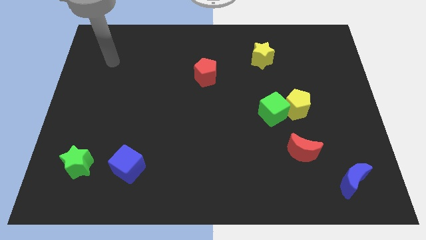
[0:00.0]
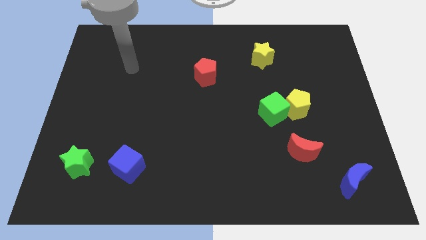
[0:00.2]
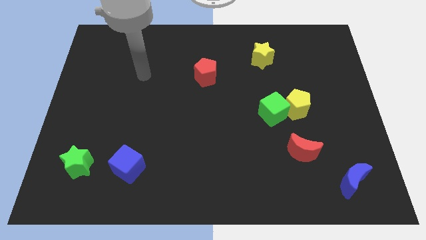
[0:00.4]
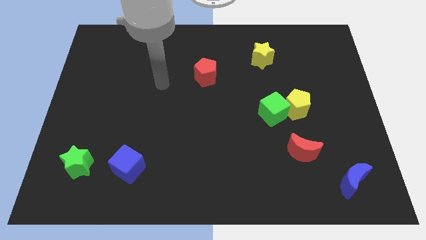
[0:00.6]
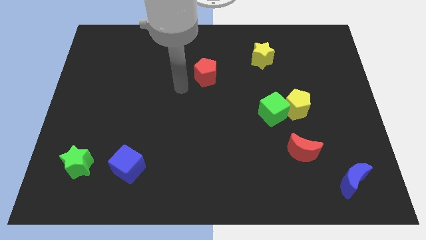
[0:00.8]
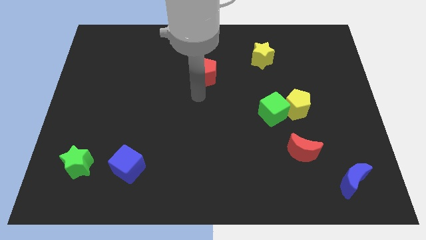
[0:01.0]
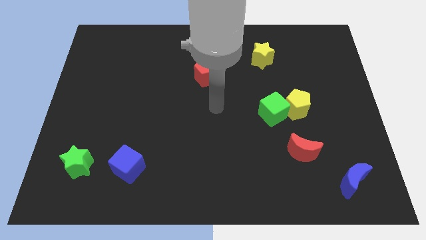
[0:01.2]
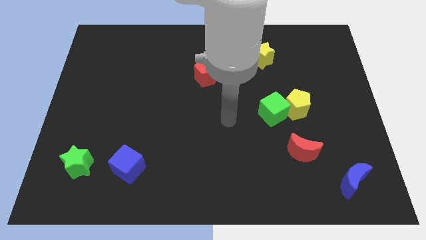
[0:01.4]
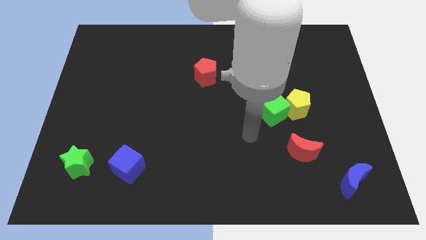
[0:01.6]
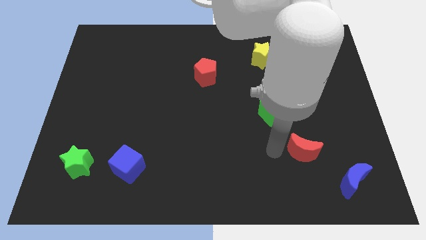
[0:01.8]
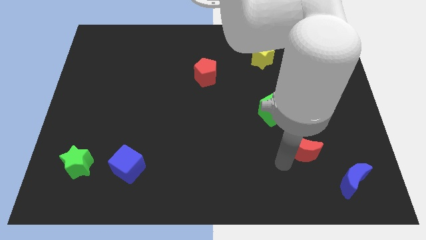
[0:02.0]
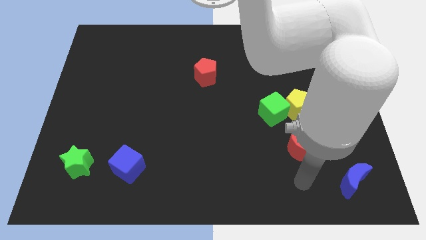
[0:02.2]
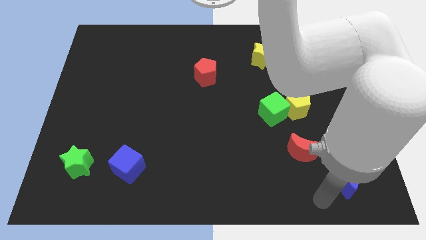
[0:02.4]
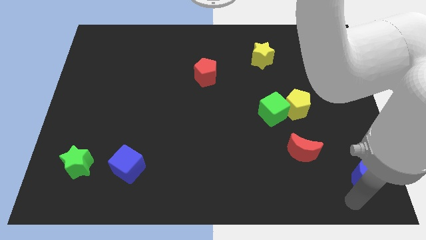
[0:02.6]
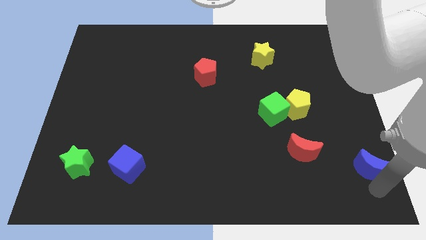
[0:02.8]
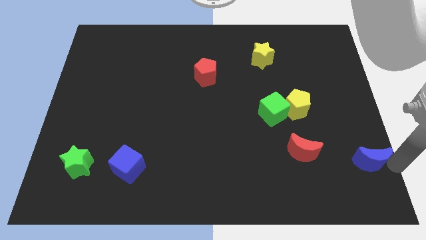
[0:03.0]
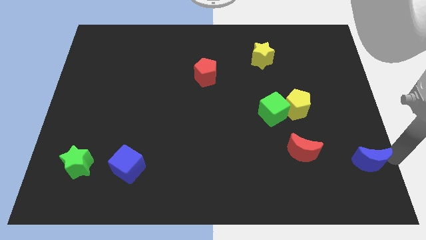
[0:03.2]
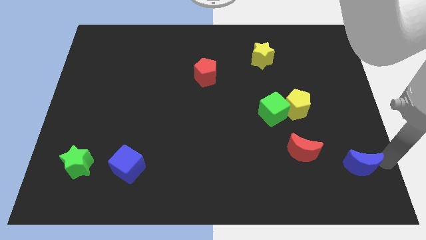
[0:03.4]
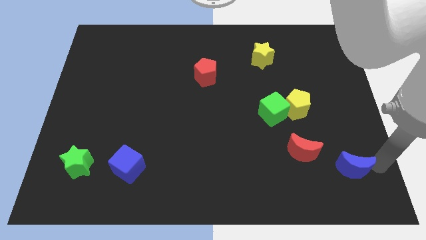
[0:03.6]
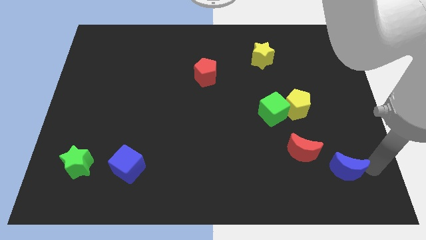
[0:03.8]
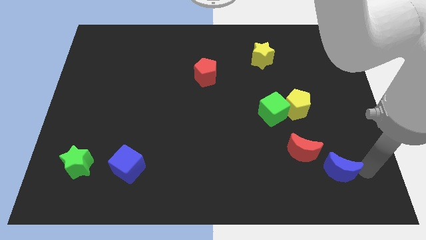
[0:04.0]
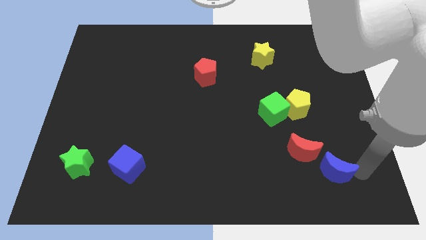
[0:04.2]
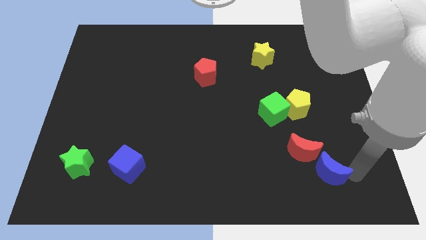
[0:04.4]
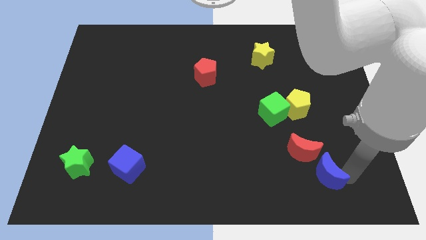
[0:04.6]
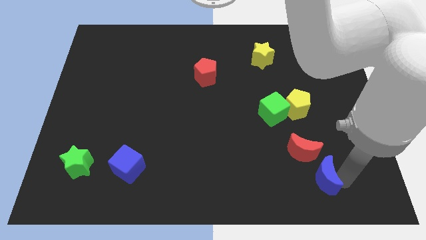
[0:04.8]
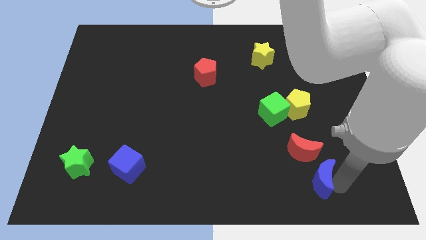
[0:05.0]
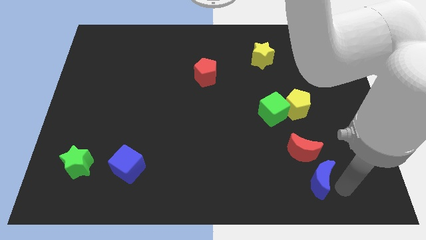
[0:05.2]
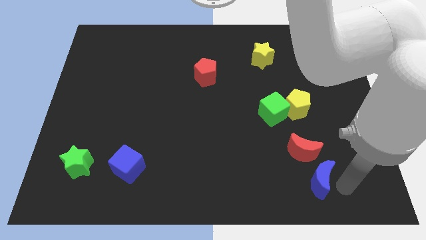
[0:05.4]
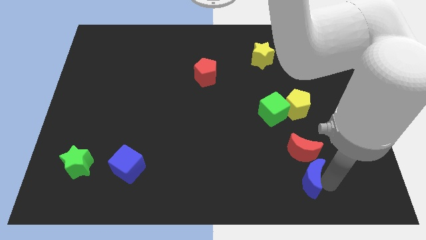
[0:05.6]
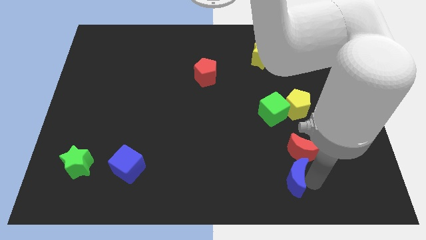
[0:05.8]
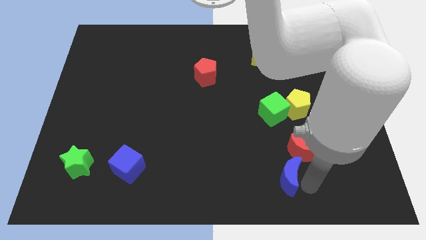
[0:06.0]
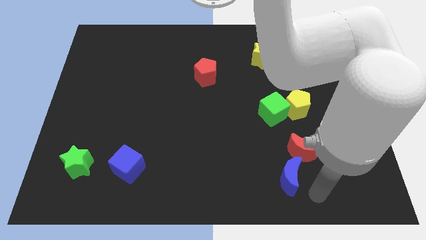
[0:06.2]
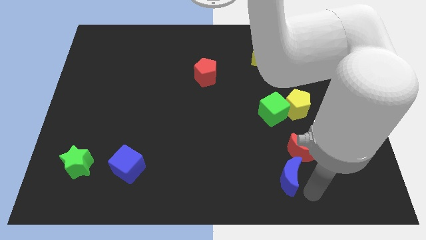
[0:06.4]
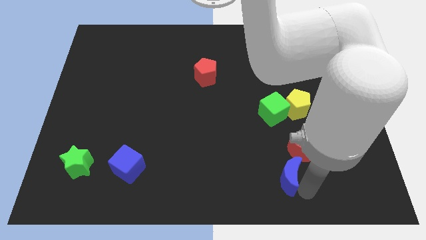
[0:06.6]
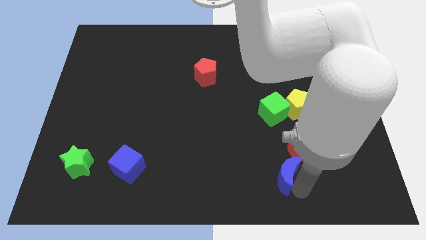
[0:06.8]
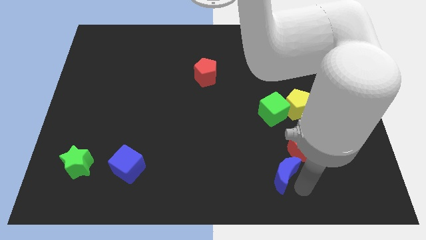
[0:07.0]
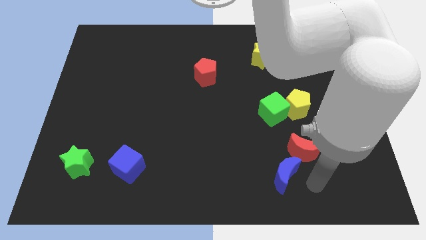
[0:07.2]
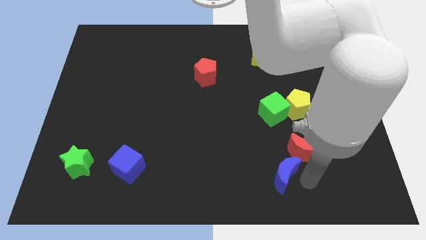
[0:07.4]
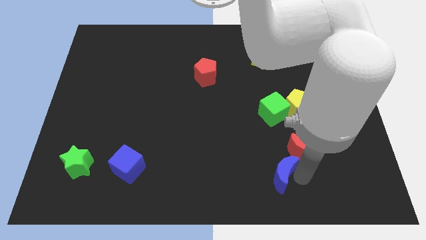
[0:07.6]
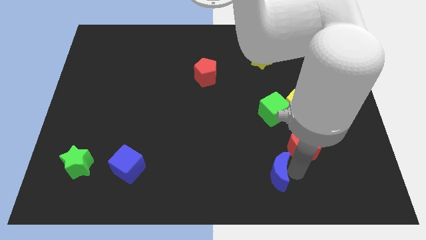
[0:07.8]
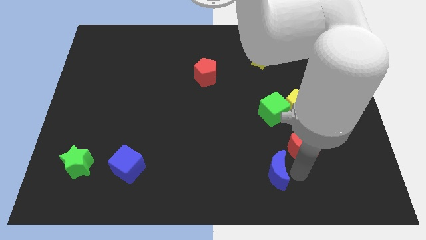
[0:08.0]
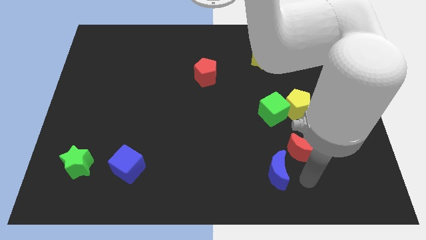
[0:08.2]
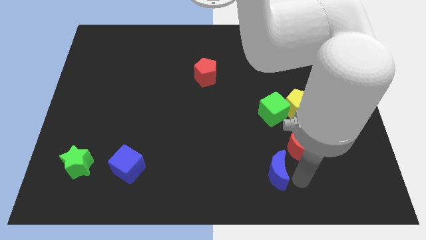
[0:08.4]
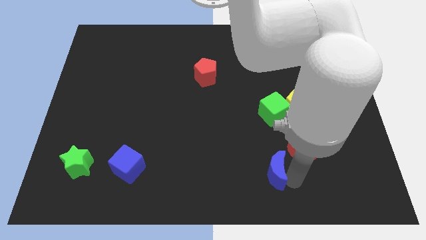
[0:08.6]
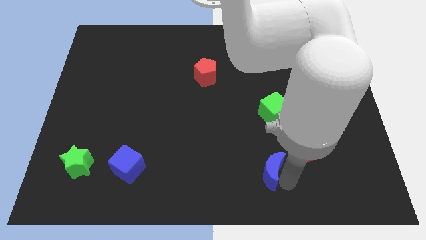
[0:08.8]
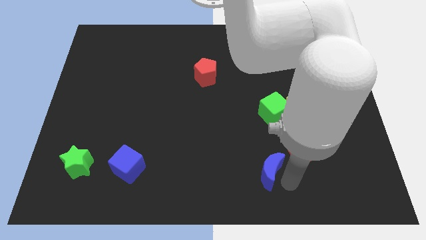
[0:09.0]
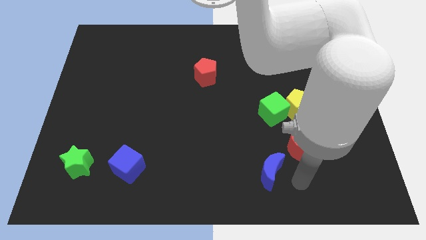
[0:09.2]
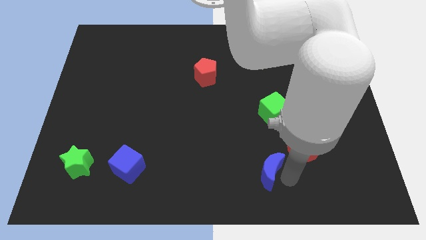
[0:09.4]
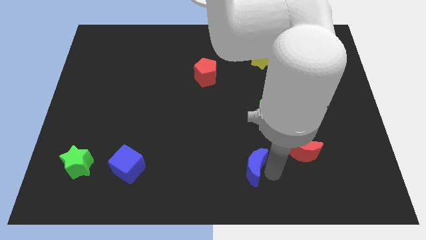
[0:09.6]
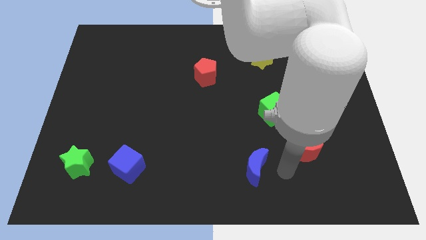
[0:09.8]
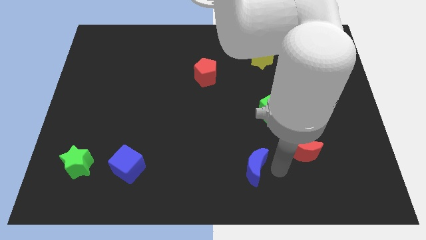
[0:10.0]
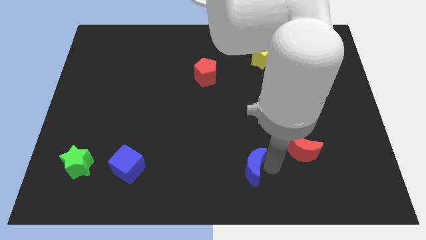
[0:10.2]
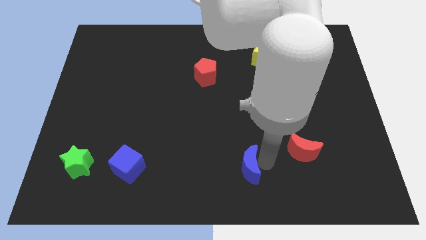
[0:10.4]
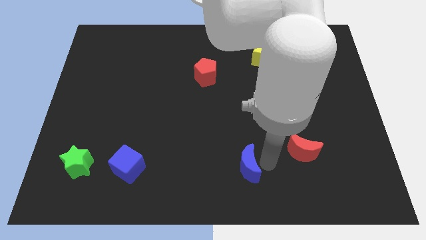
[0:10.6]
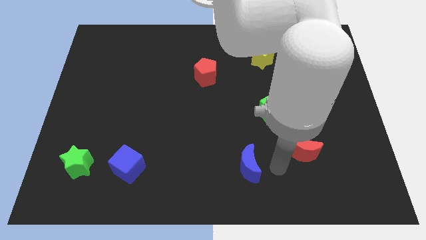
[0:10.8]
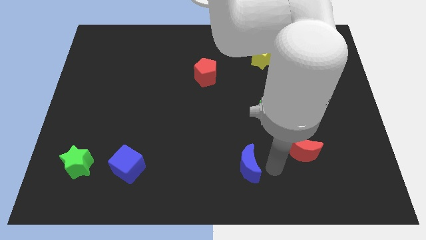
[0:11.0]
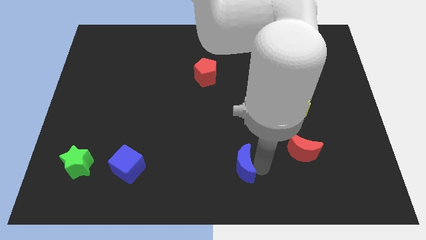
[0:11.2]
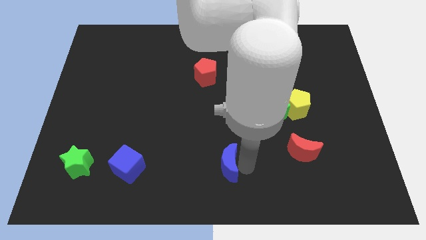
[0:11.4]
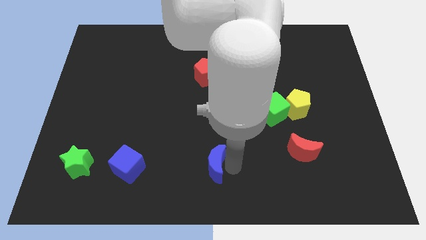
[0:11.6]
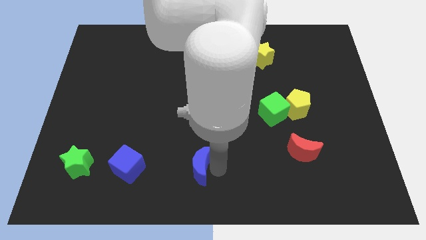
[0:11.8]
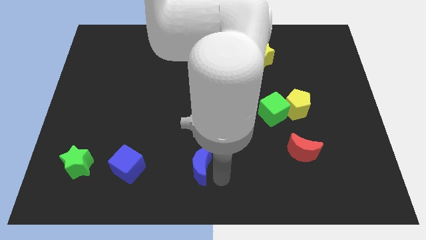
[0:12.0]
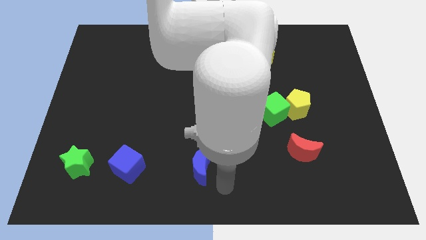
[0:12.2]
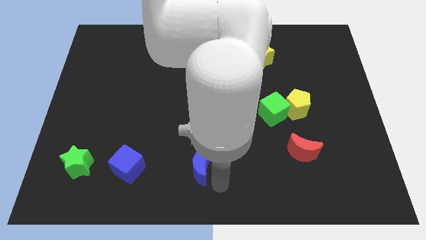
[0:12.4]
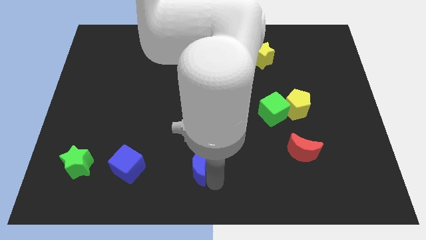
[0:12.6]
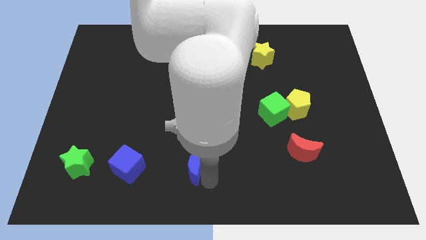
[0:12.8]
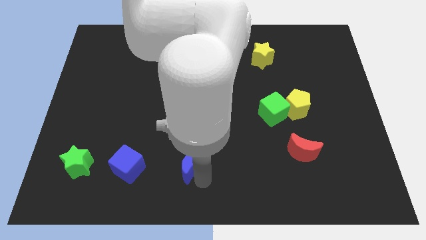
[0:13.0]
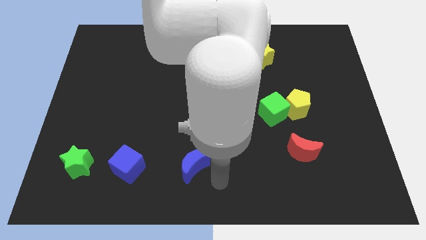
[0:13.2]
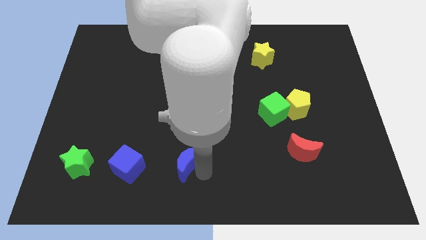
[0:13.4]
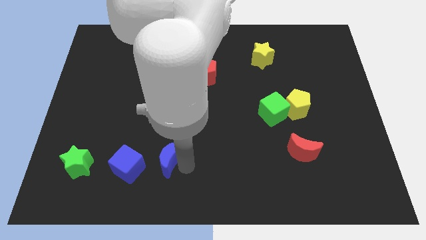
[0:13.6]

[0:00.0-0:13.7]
put the blue moon to the top right side of the blue cube
